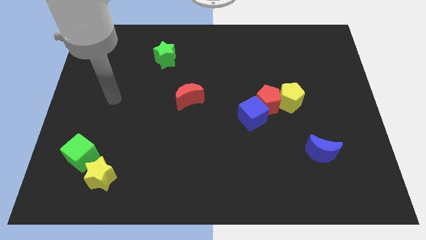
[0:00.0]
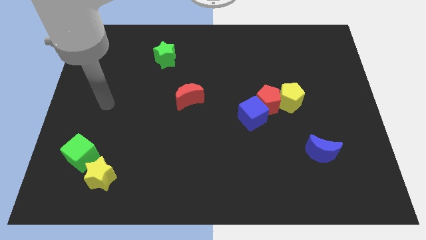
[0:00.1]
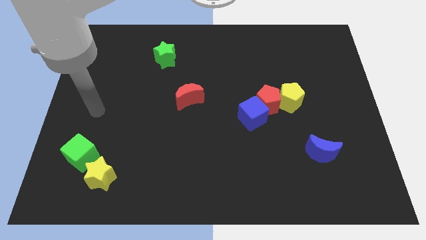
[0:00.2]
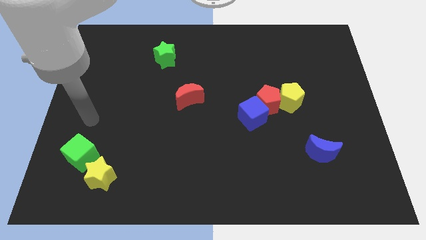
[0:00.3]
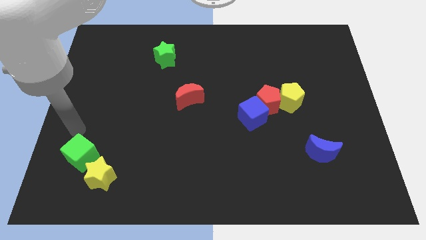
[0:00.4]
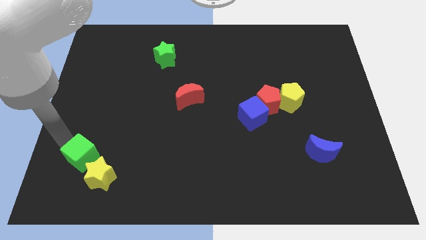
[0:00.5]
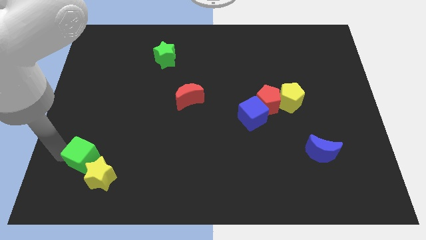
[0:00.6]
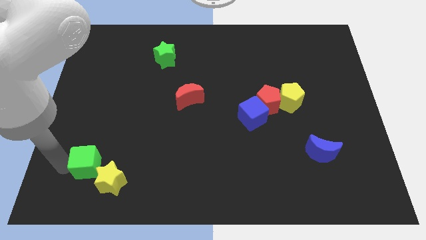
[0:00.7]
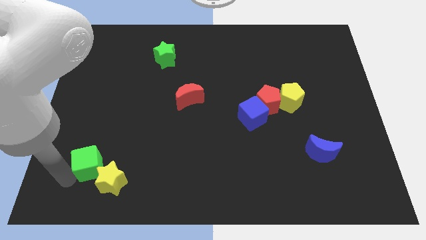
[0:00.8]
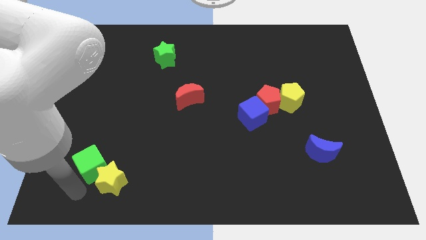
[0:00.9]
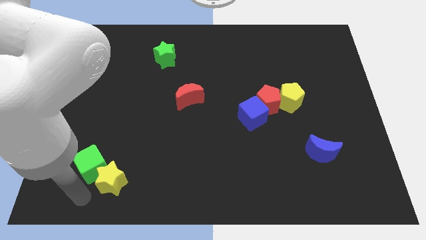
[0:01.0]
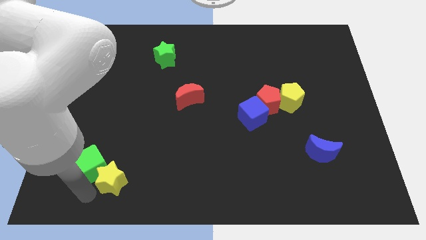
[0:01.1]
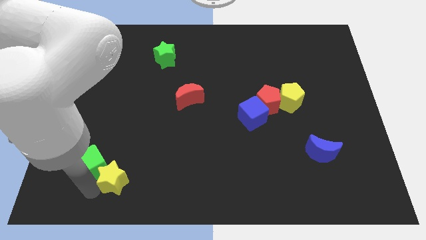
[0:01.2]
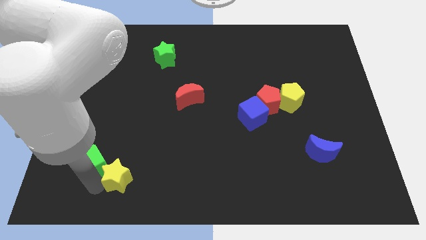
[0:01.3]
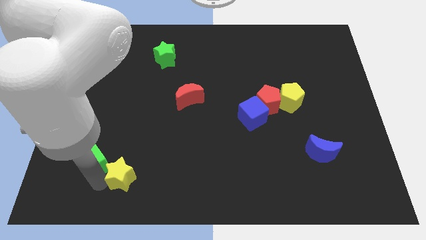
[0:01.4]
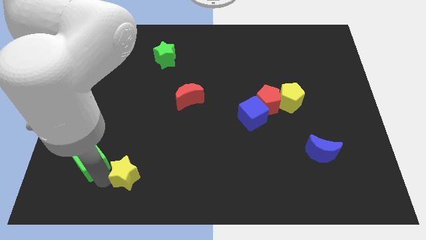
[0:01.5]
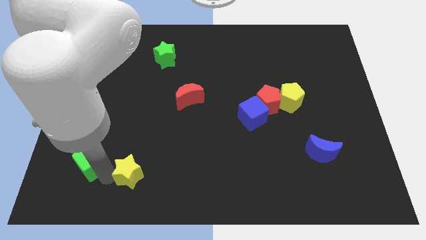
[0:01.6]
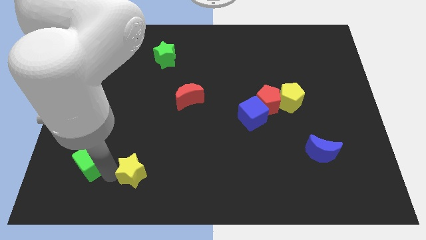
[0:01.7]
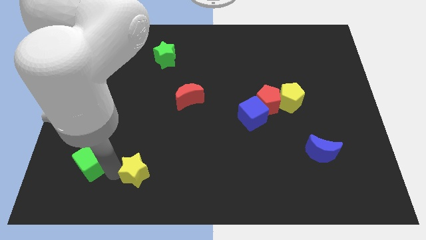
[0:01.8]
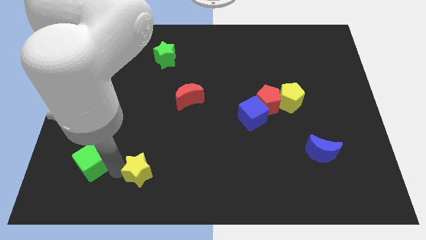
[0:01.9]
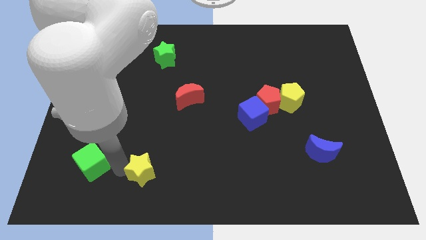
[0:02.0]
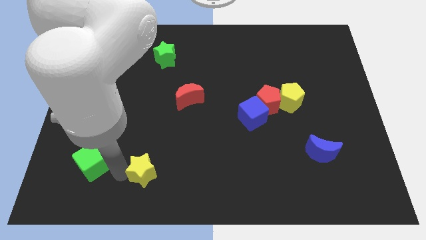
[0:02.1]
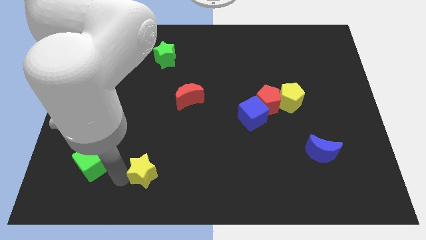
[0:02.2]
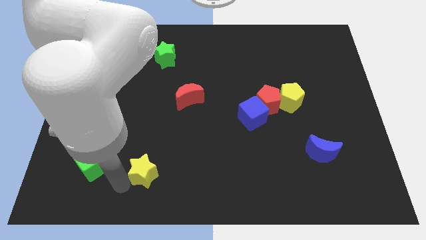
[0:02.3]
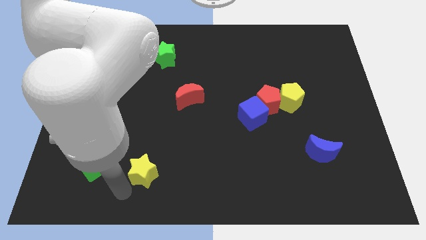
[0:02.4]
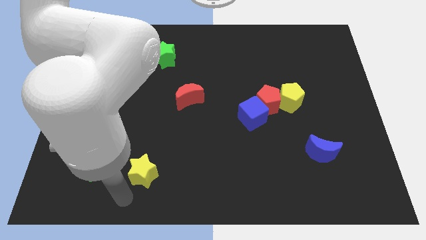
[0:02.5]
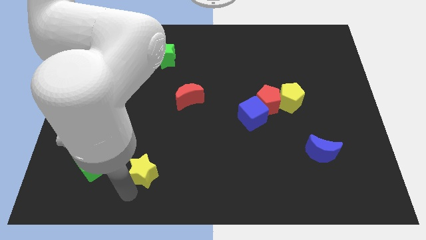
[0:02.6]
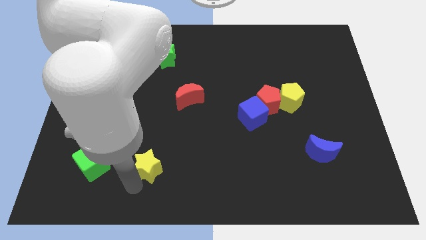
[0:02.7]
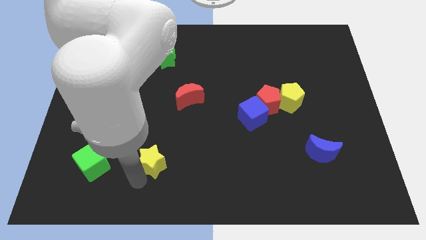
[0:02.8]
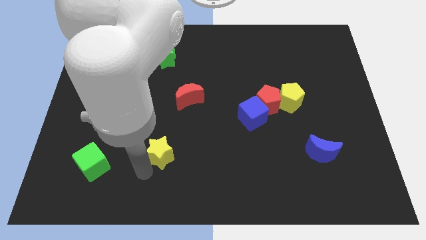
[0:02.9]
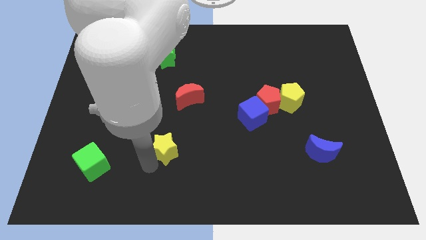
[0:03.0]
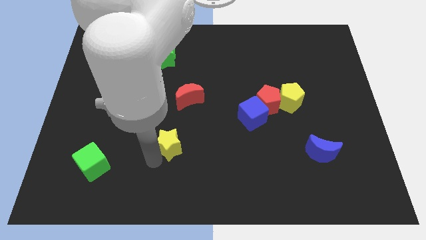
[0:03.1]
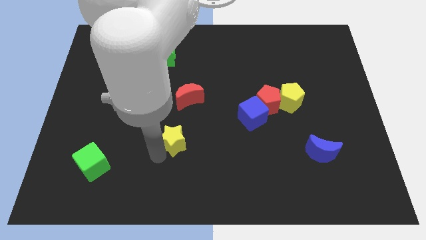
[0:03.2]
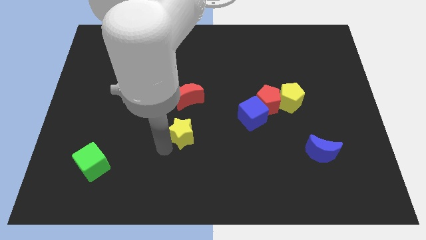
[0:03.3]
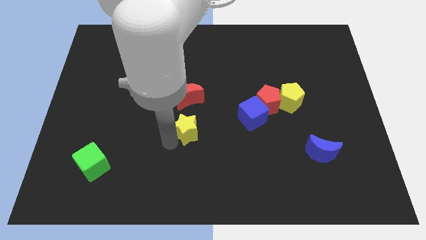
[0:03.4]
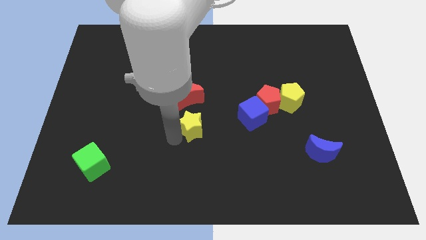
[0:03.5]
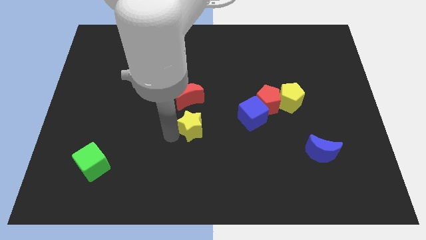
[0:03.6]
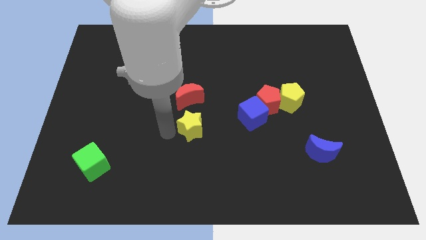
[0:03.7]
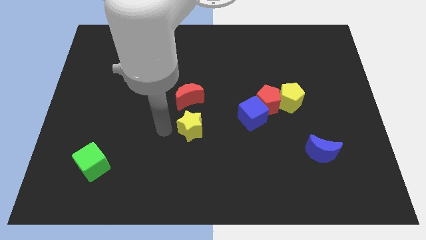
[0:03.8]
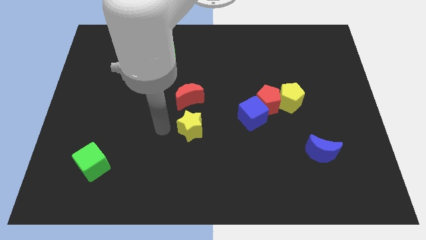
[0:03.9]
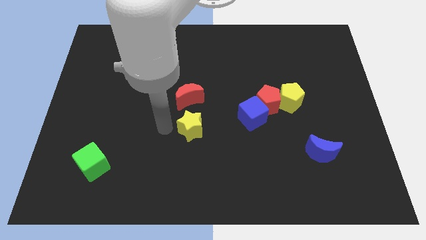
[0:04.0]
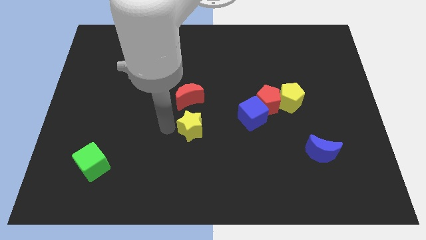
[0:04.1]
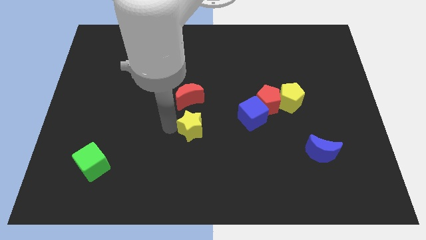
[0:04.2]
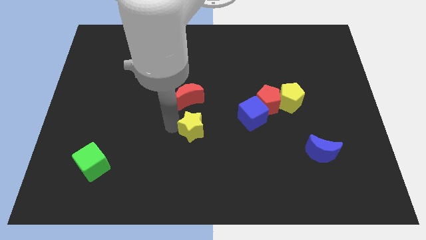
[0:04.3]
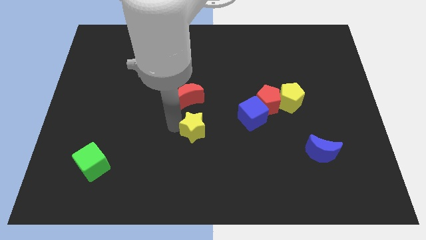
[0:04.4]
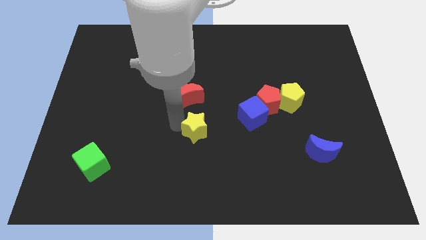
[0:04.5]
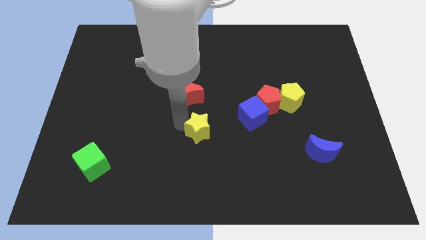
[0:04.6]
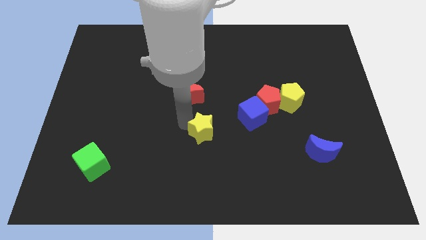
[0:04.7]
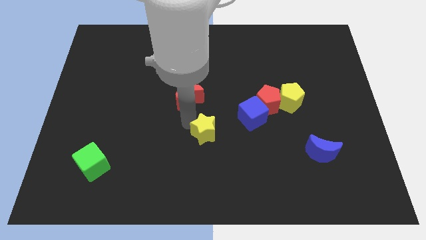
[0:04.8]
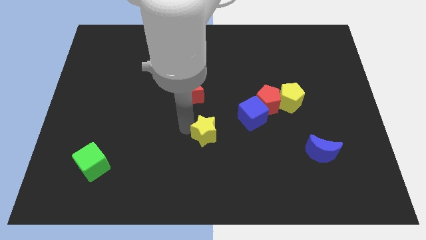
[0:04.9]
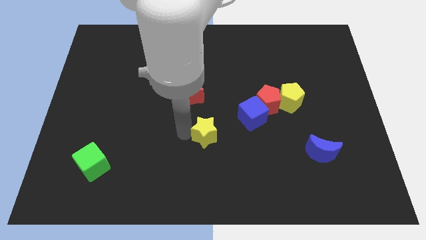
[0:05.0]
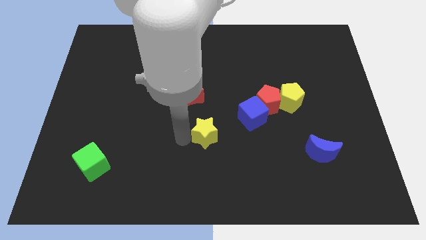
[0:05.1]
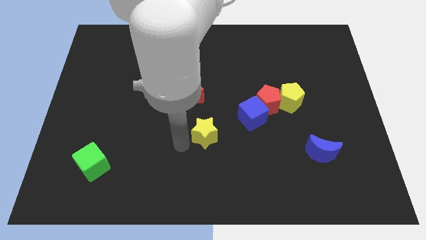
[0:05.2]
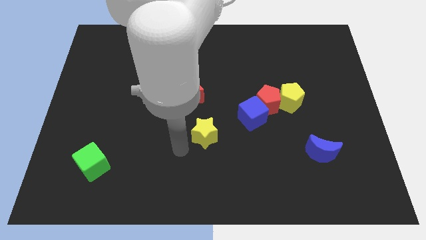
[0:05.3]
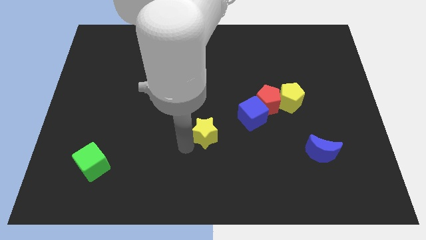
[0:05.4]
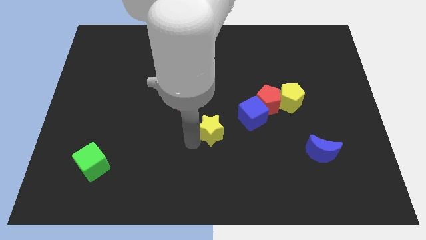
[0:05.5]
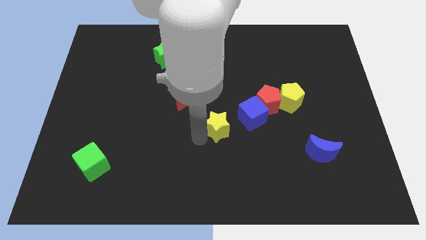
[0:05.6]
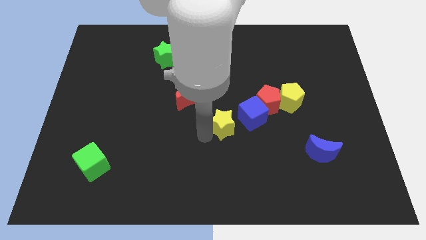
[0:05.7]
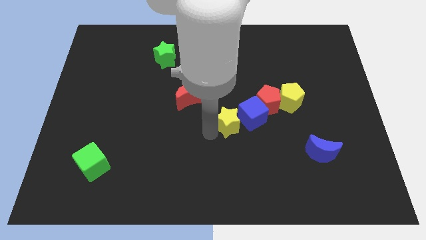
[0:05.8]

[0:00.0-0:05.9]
push the yellow star to the blue cube

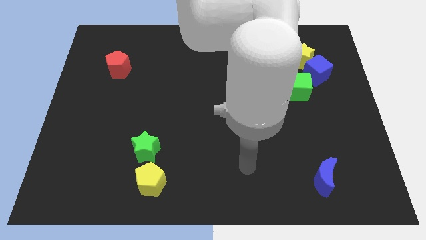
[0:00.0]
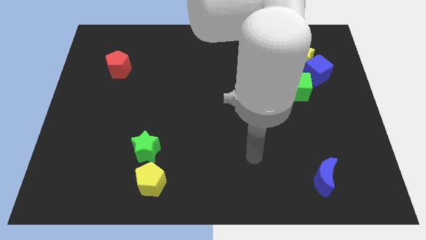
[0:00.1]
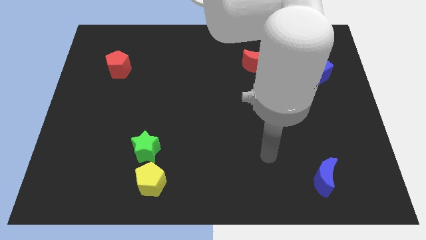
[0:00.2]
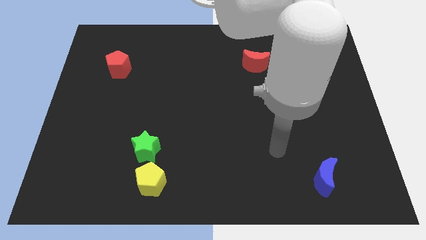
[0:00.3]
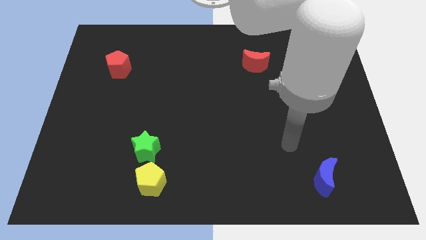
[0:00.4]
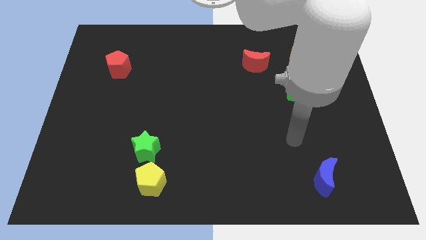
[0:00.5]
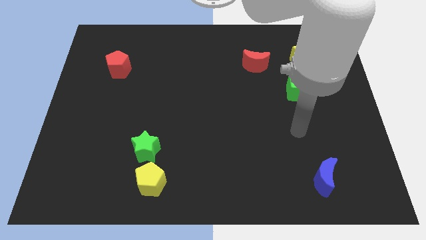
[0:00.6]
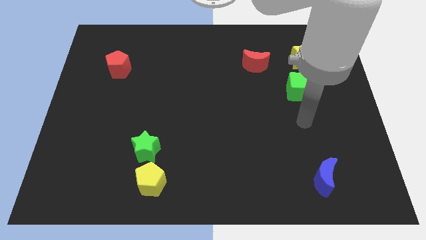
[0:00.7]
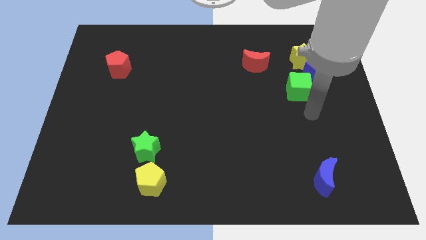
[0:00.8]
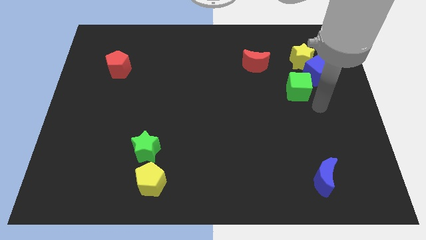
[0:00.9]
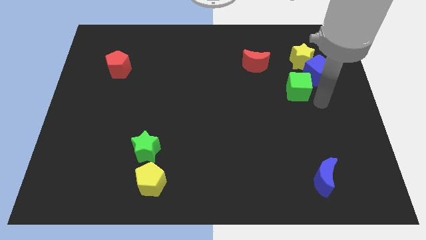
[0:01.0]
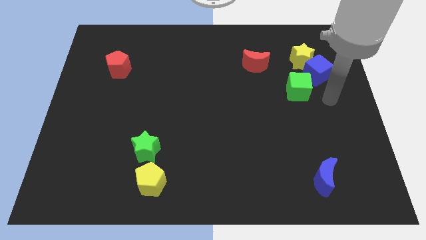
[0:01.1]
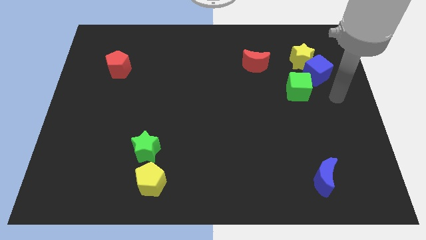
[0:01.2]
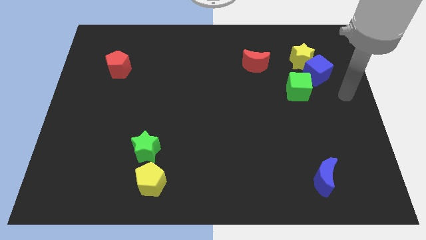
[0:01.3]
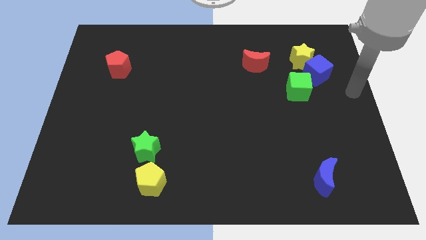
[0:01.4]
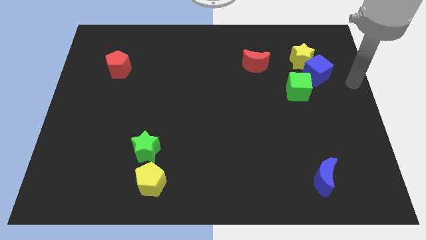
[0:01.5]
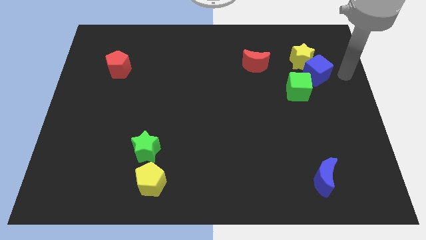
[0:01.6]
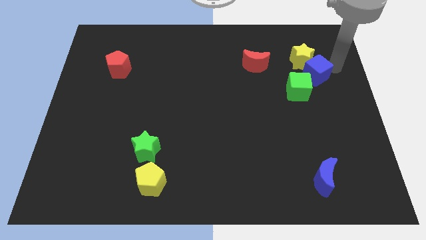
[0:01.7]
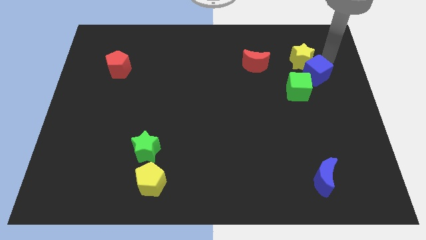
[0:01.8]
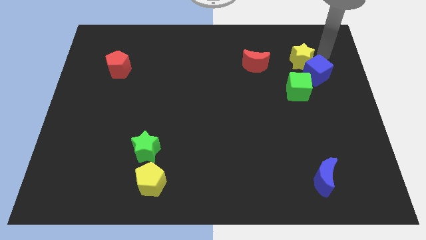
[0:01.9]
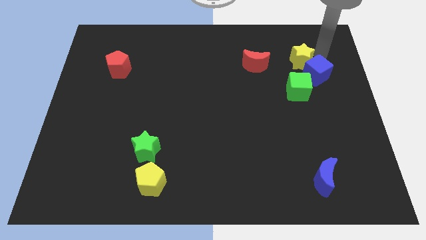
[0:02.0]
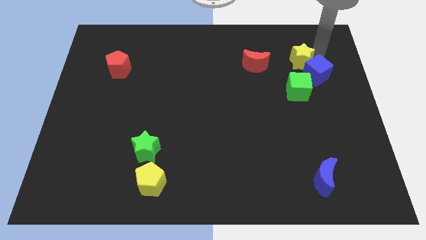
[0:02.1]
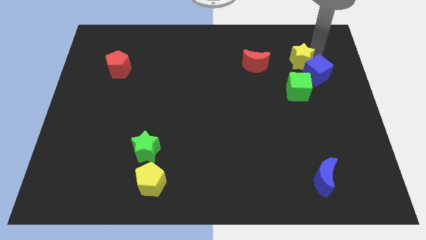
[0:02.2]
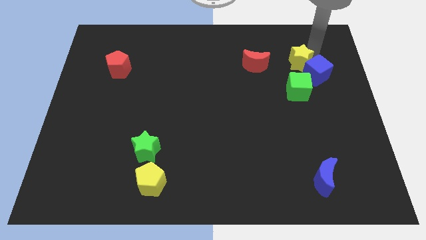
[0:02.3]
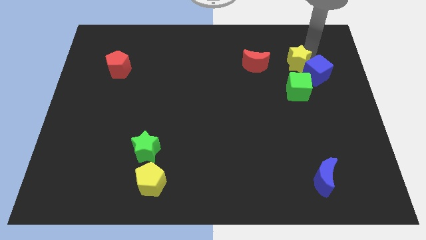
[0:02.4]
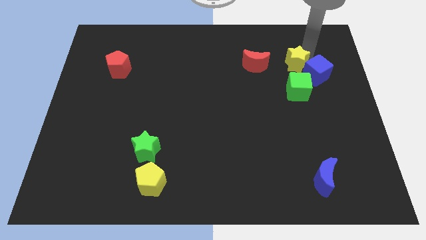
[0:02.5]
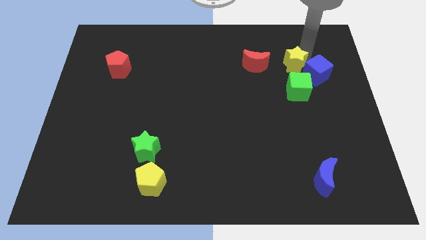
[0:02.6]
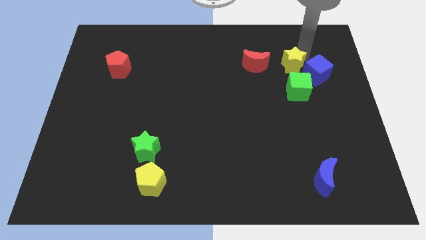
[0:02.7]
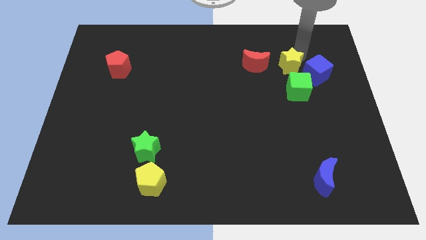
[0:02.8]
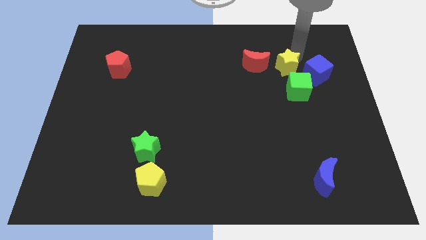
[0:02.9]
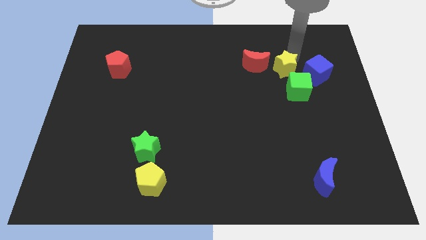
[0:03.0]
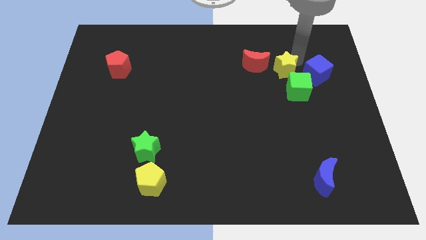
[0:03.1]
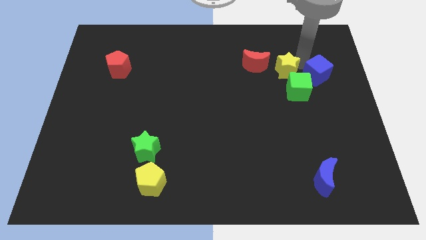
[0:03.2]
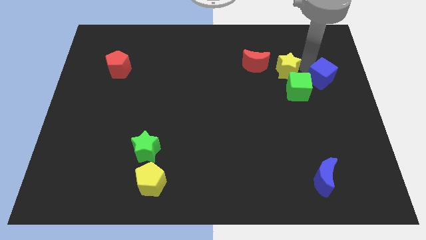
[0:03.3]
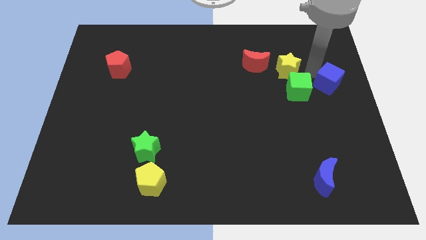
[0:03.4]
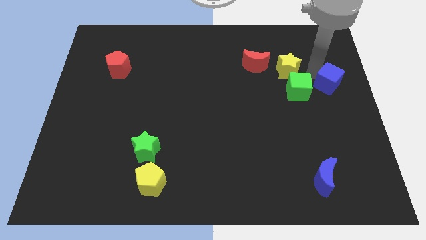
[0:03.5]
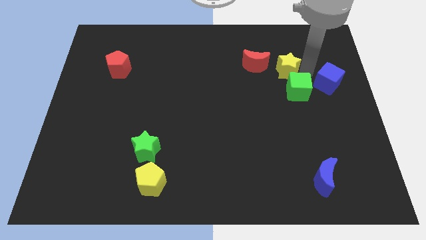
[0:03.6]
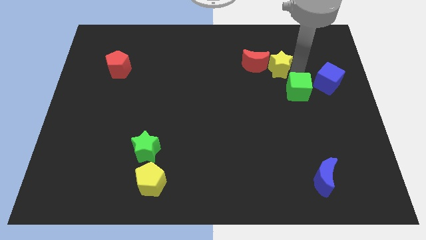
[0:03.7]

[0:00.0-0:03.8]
move the yellow star to the red moon
